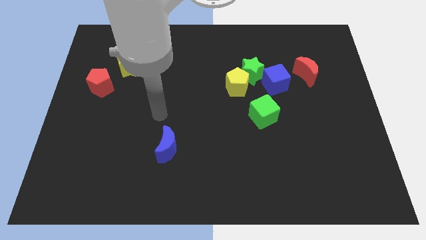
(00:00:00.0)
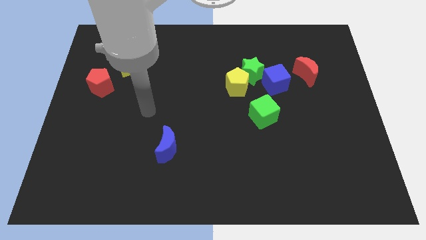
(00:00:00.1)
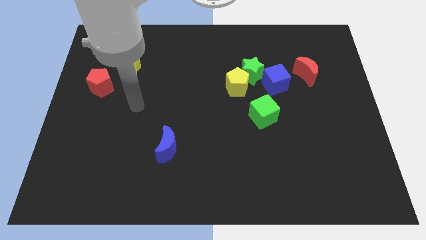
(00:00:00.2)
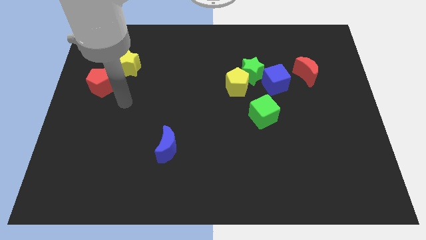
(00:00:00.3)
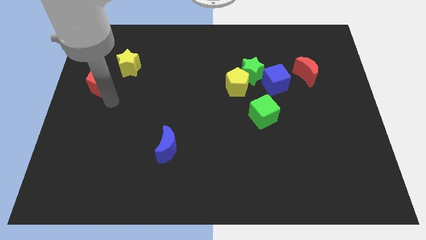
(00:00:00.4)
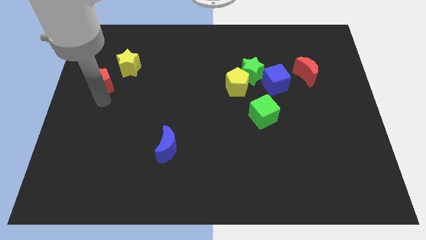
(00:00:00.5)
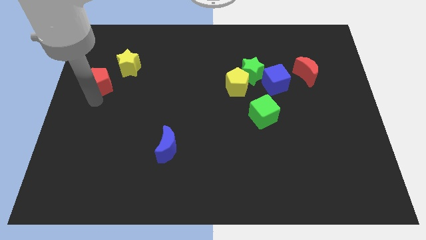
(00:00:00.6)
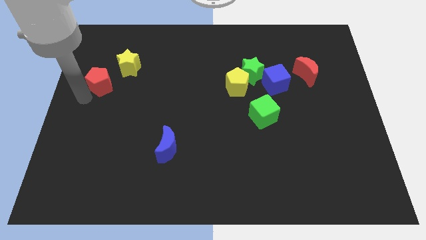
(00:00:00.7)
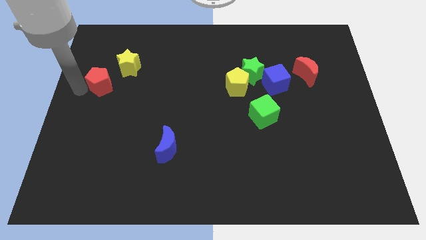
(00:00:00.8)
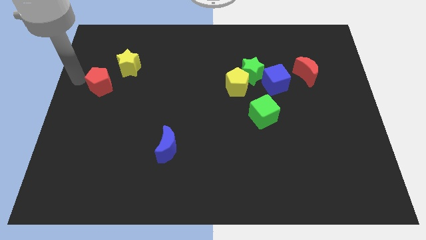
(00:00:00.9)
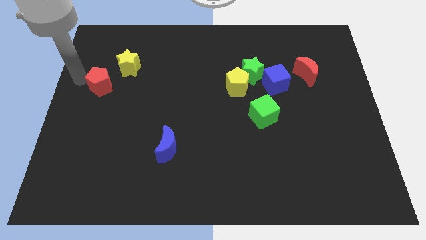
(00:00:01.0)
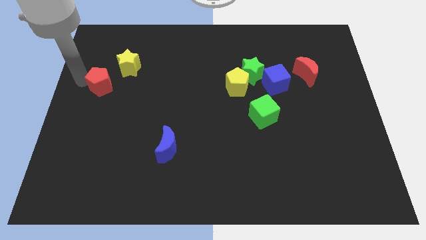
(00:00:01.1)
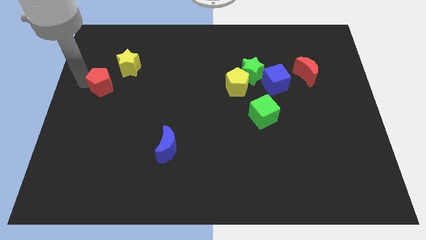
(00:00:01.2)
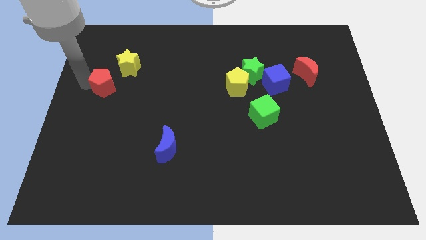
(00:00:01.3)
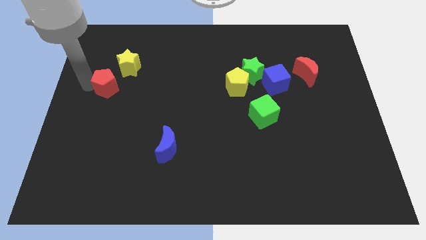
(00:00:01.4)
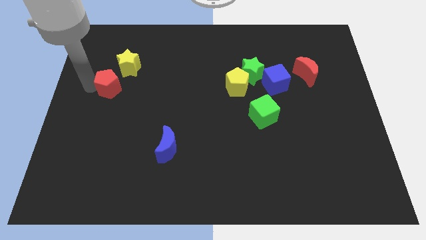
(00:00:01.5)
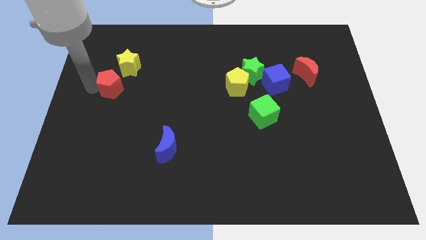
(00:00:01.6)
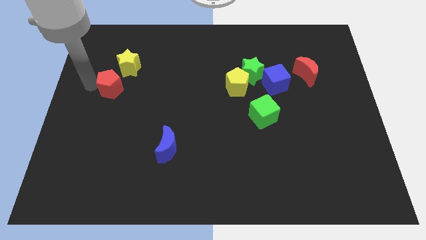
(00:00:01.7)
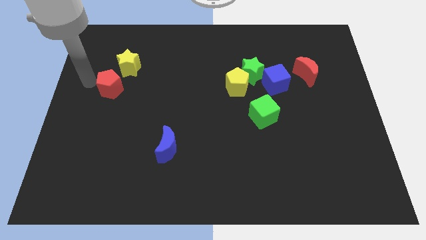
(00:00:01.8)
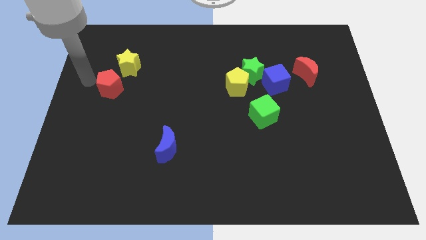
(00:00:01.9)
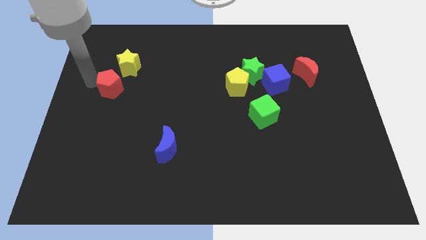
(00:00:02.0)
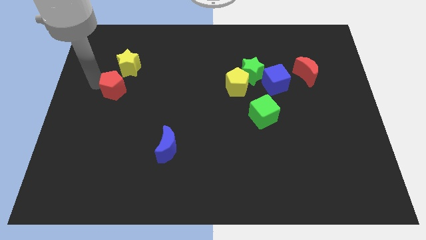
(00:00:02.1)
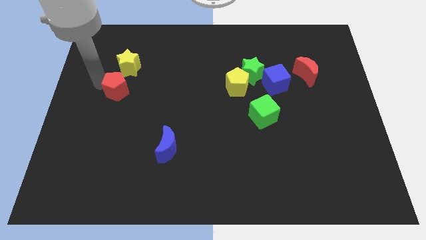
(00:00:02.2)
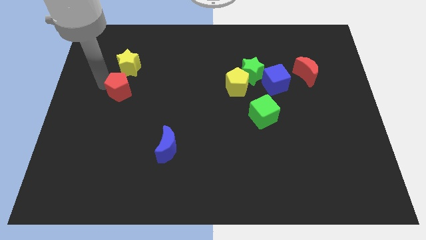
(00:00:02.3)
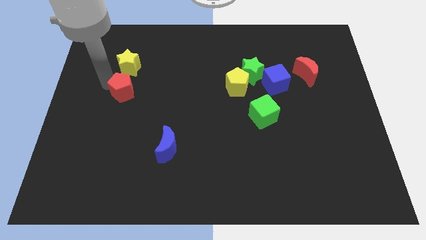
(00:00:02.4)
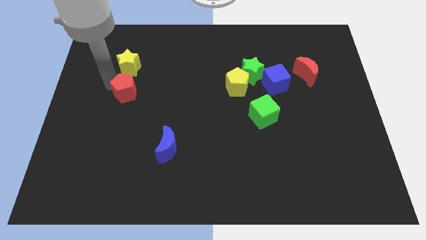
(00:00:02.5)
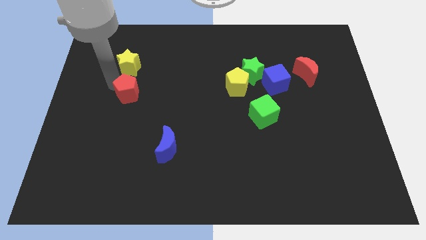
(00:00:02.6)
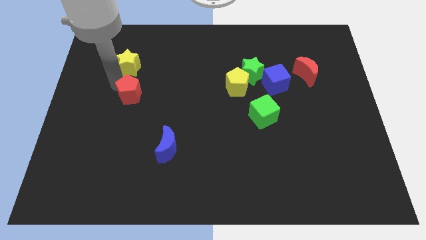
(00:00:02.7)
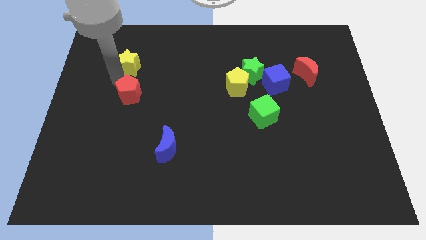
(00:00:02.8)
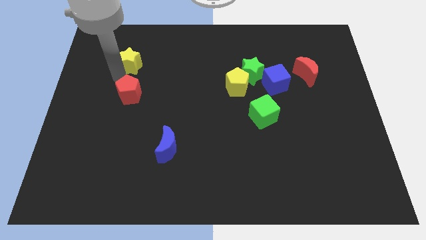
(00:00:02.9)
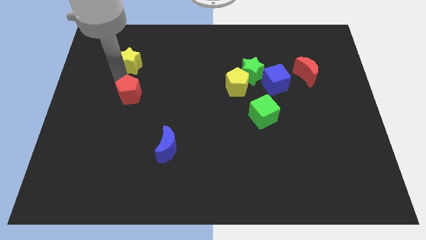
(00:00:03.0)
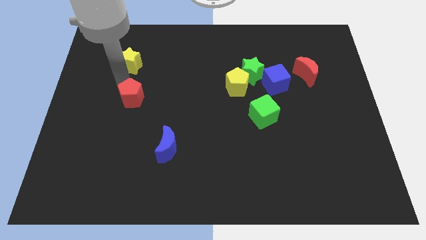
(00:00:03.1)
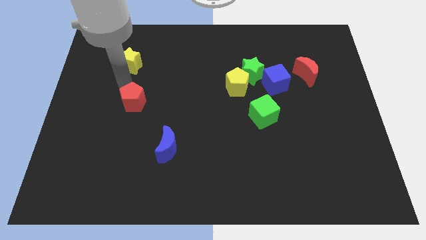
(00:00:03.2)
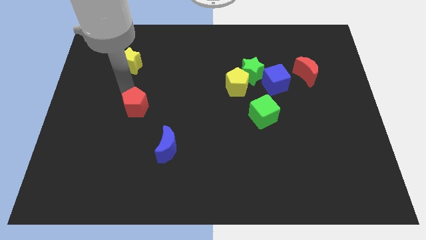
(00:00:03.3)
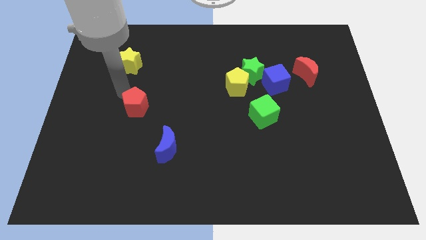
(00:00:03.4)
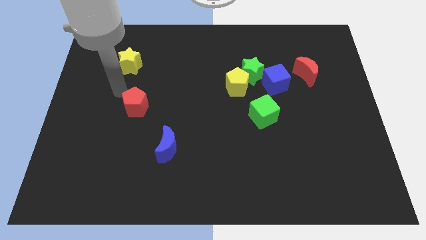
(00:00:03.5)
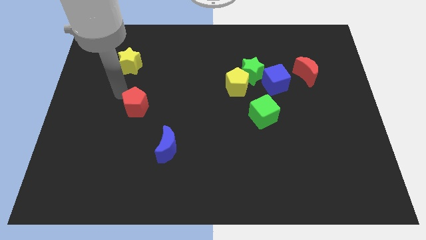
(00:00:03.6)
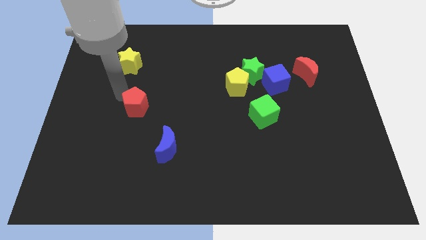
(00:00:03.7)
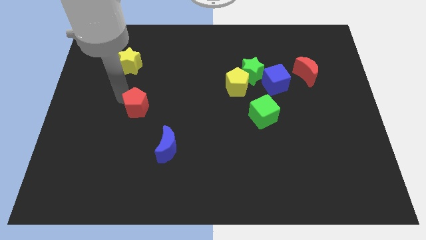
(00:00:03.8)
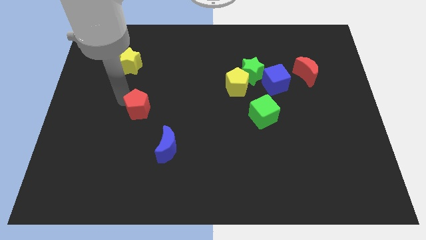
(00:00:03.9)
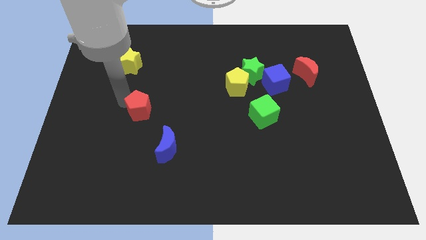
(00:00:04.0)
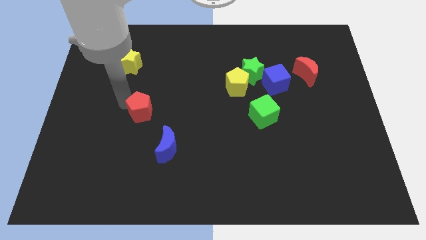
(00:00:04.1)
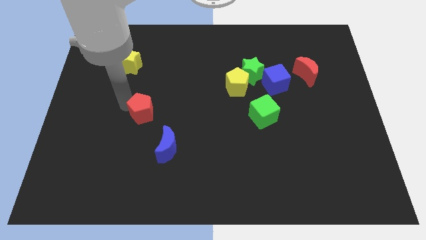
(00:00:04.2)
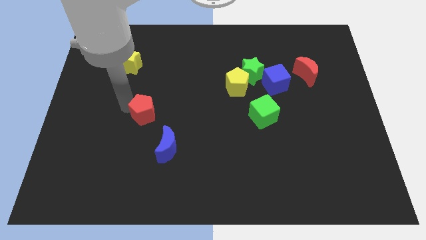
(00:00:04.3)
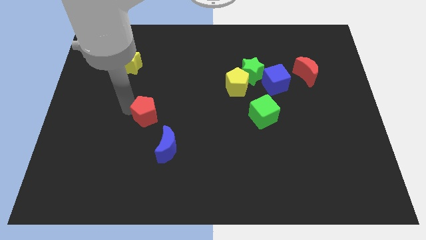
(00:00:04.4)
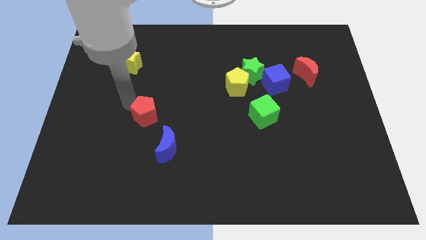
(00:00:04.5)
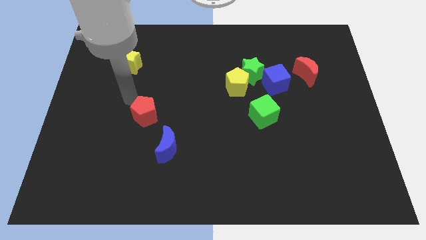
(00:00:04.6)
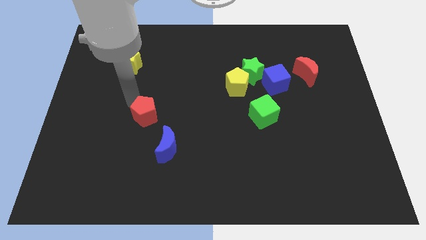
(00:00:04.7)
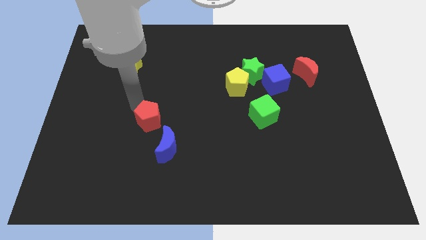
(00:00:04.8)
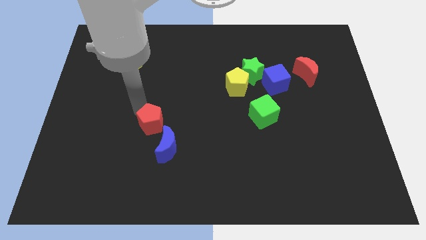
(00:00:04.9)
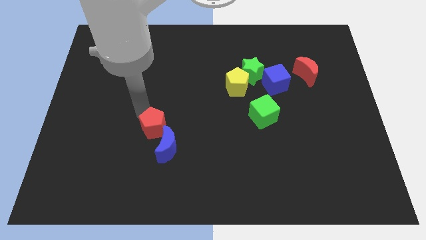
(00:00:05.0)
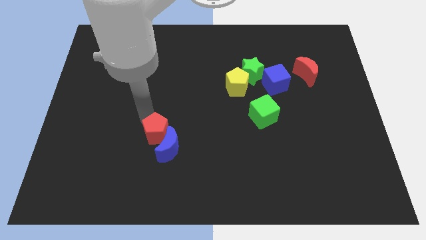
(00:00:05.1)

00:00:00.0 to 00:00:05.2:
move the red pentagon to the blue moon

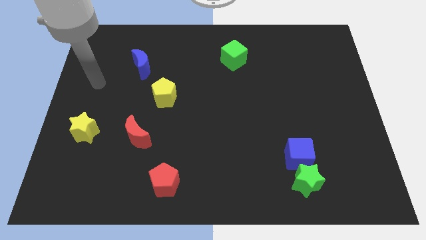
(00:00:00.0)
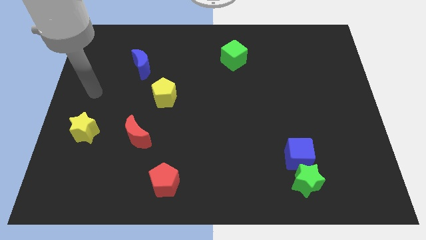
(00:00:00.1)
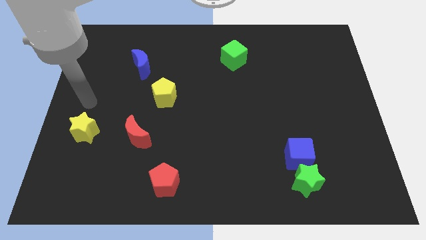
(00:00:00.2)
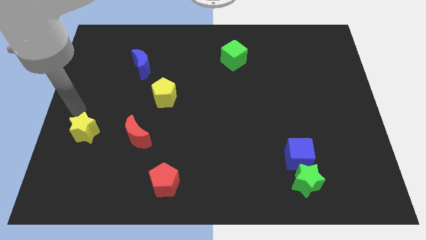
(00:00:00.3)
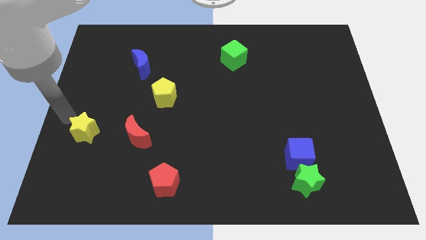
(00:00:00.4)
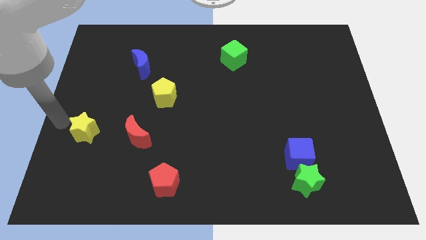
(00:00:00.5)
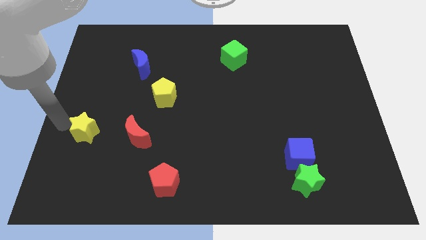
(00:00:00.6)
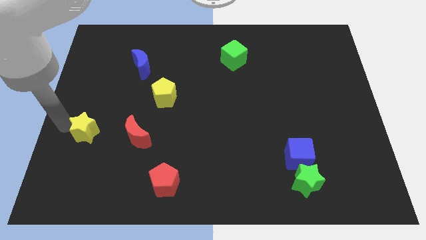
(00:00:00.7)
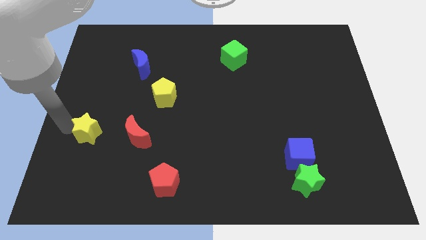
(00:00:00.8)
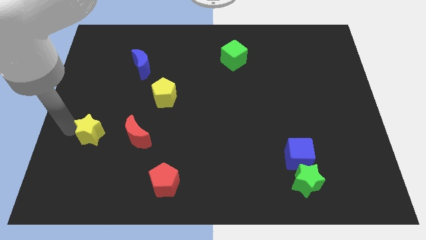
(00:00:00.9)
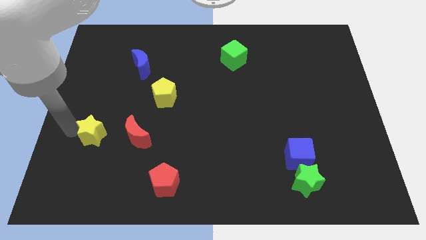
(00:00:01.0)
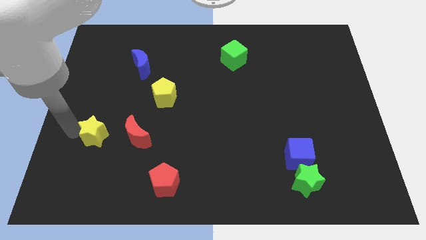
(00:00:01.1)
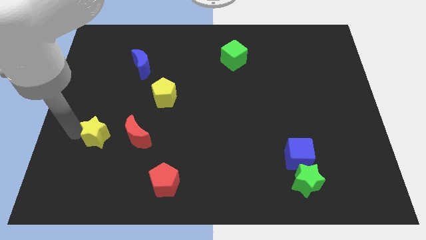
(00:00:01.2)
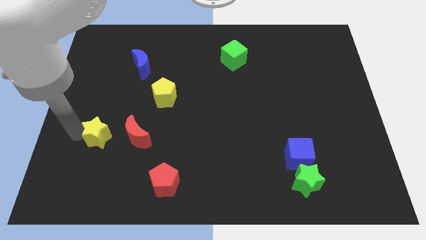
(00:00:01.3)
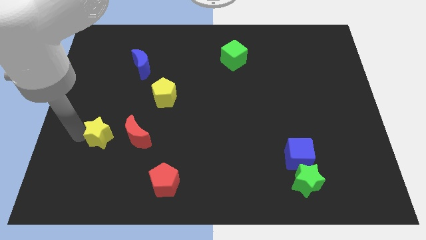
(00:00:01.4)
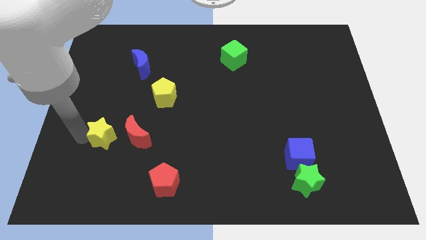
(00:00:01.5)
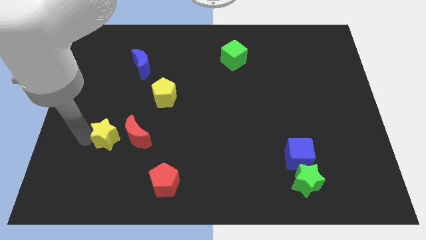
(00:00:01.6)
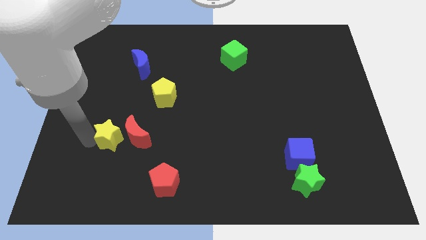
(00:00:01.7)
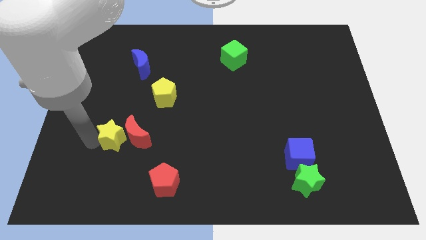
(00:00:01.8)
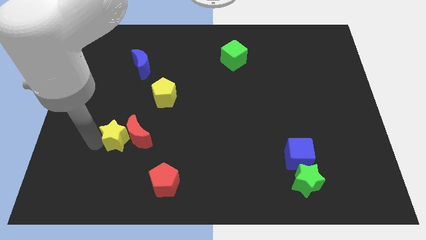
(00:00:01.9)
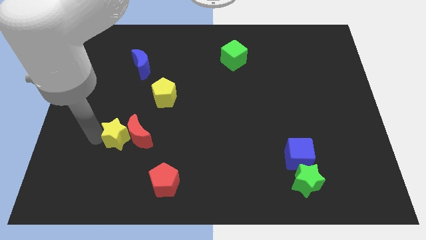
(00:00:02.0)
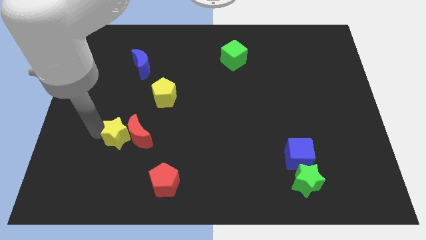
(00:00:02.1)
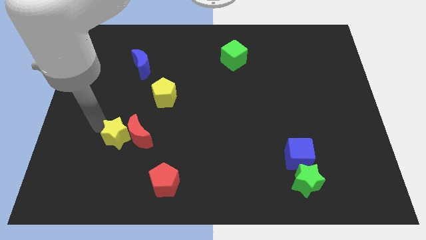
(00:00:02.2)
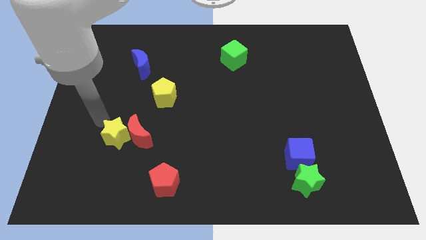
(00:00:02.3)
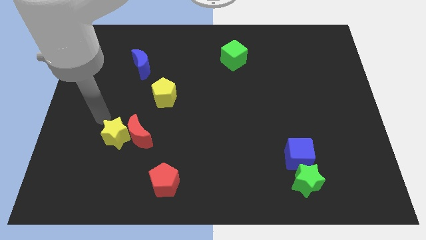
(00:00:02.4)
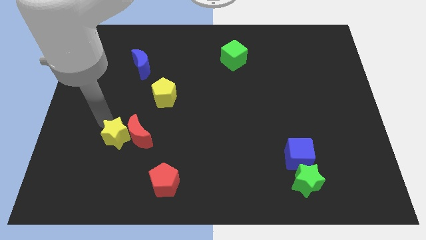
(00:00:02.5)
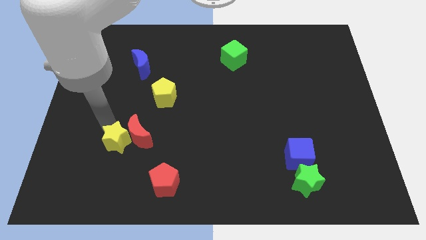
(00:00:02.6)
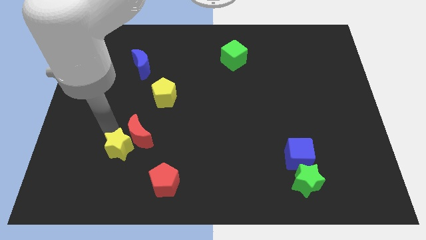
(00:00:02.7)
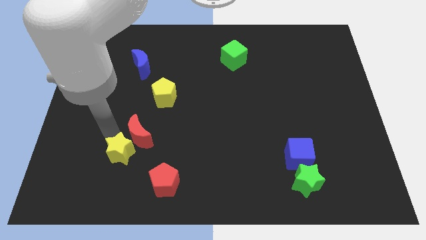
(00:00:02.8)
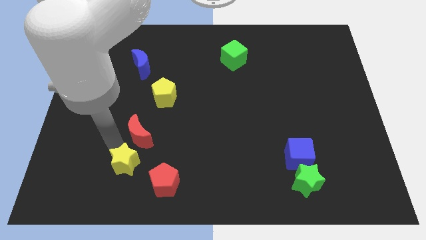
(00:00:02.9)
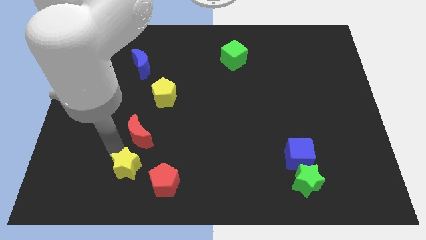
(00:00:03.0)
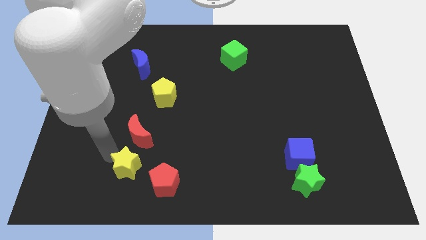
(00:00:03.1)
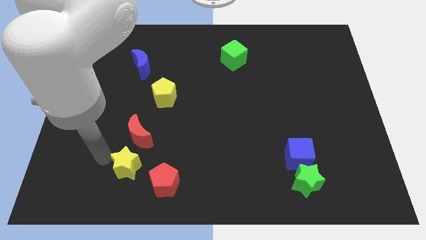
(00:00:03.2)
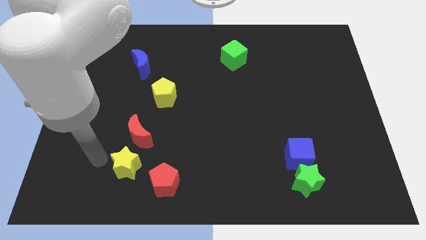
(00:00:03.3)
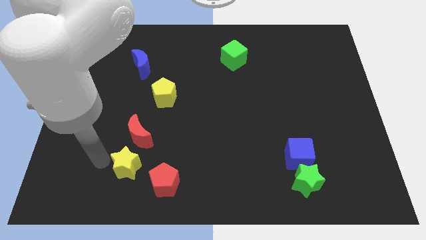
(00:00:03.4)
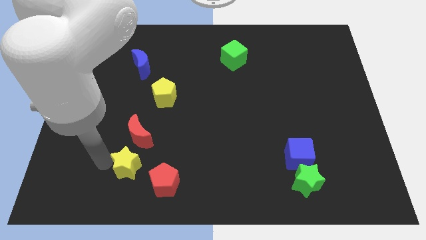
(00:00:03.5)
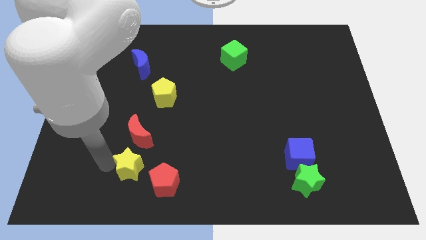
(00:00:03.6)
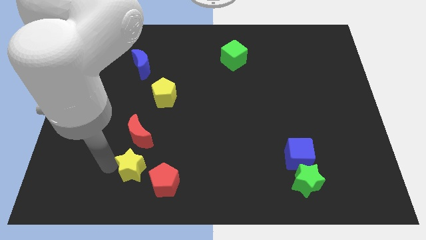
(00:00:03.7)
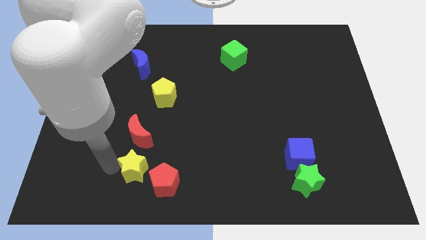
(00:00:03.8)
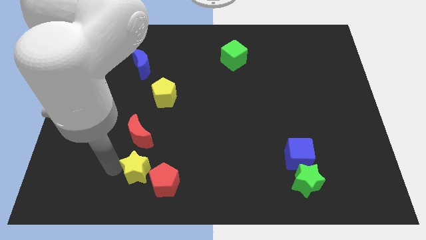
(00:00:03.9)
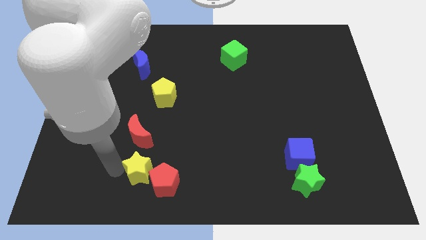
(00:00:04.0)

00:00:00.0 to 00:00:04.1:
slide the yellow star next to the red pentagon
